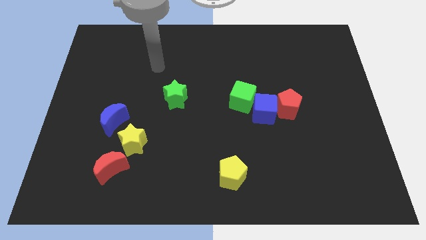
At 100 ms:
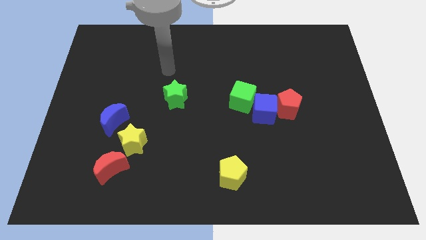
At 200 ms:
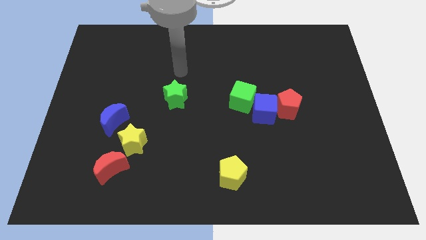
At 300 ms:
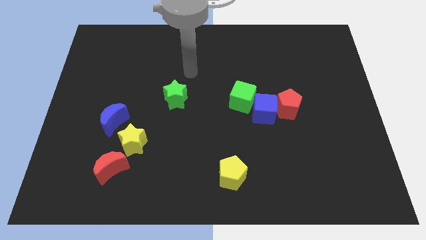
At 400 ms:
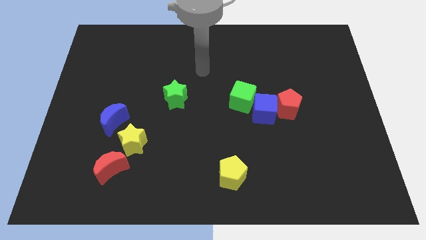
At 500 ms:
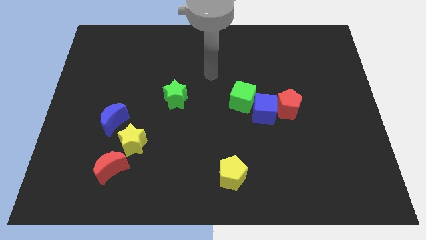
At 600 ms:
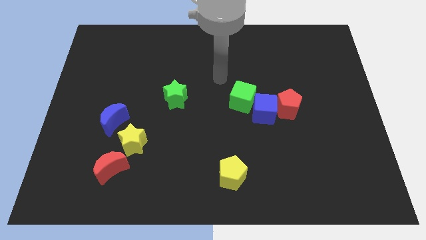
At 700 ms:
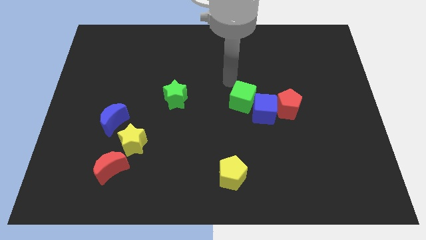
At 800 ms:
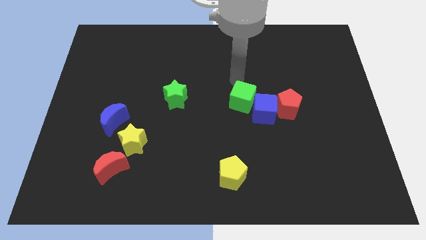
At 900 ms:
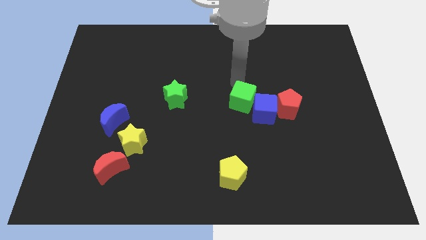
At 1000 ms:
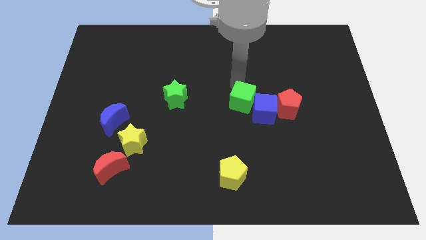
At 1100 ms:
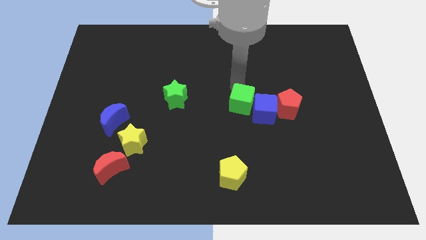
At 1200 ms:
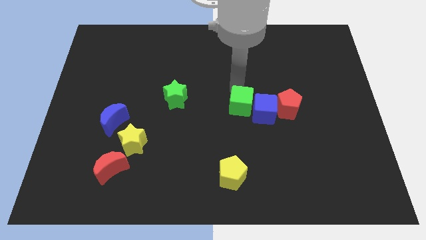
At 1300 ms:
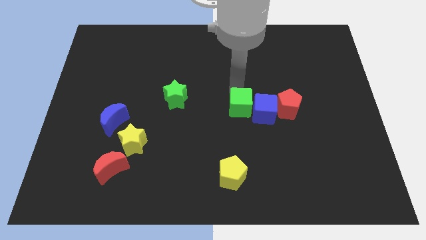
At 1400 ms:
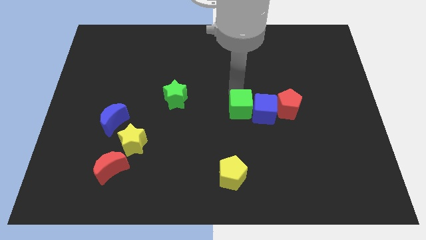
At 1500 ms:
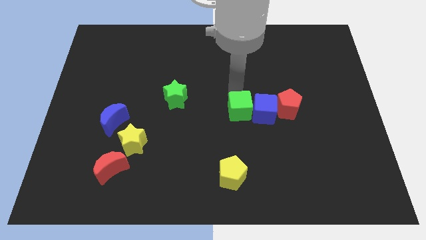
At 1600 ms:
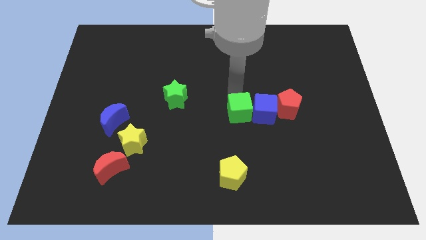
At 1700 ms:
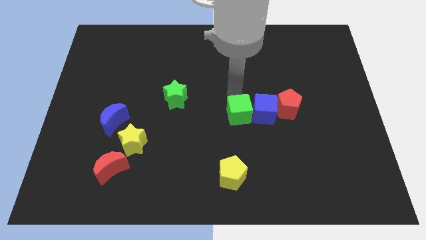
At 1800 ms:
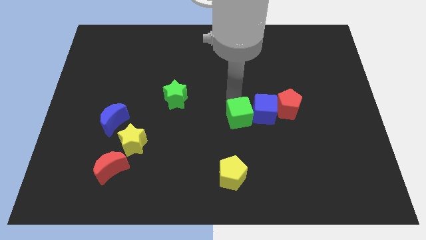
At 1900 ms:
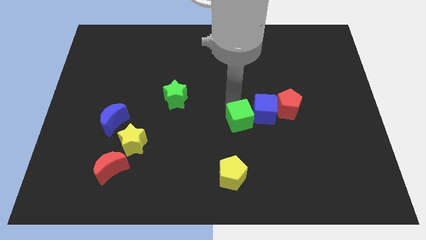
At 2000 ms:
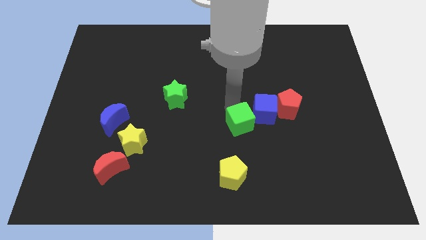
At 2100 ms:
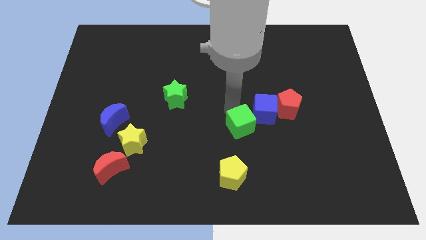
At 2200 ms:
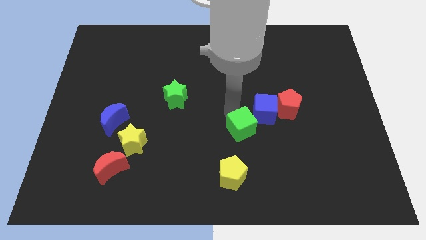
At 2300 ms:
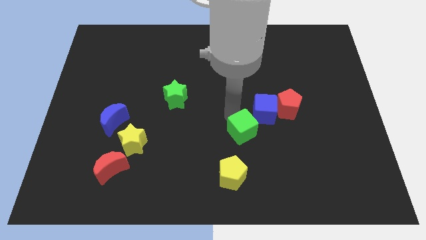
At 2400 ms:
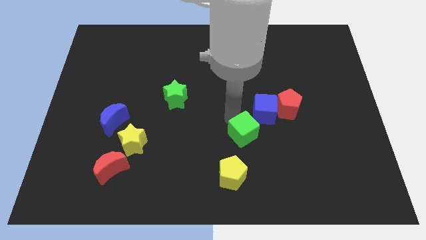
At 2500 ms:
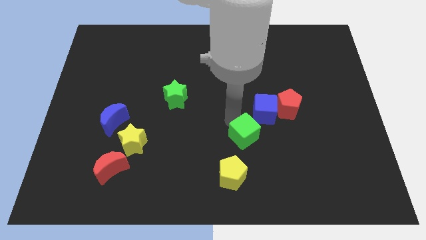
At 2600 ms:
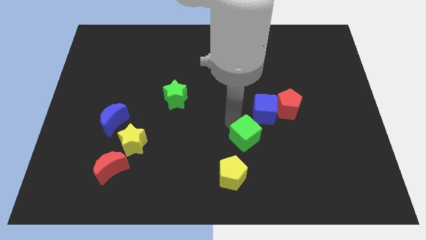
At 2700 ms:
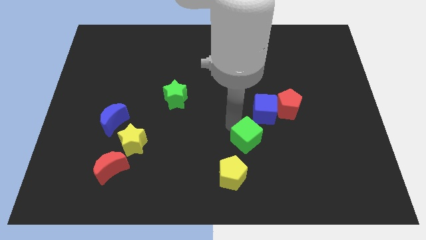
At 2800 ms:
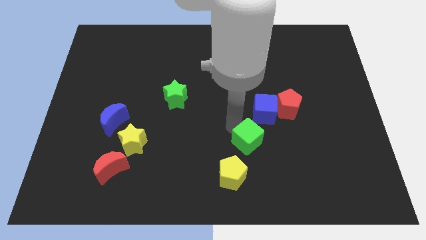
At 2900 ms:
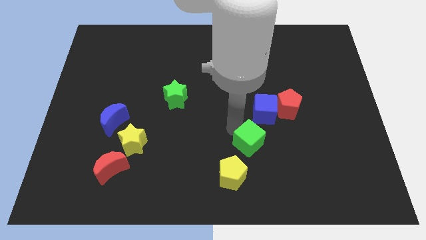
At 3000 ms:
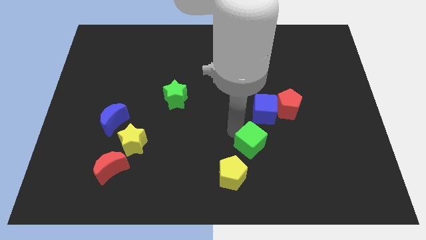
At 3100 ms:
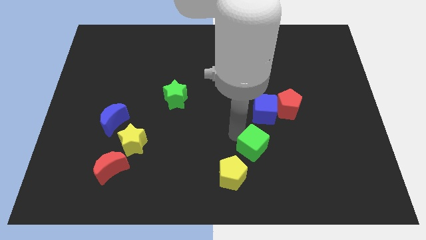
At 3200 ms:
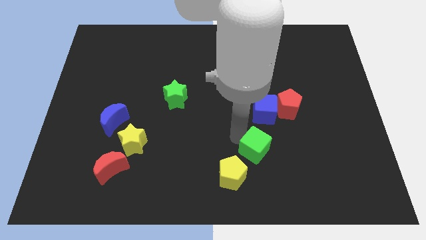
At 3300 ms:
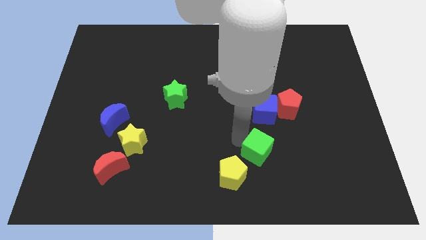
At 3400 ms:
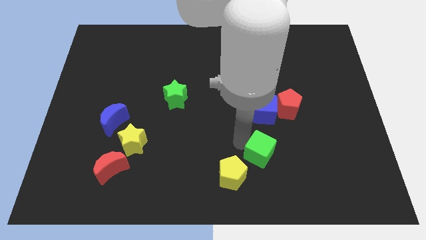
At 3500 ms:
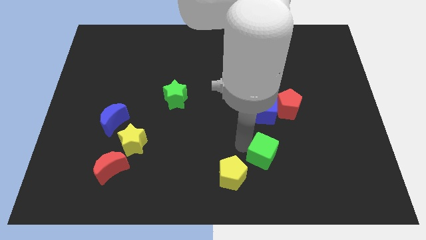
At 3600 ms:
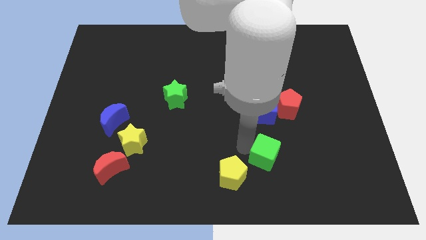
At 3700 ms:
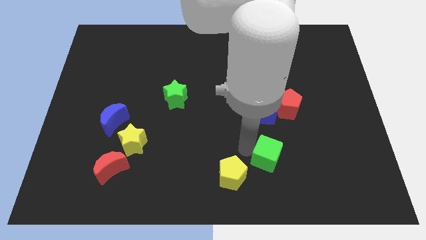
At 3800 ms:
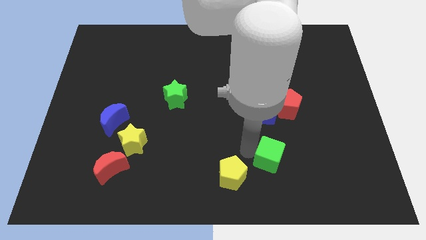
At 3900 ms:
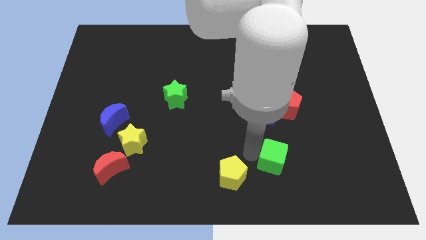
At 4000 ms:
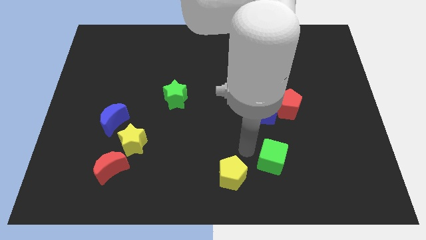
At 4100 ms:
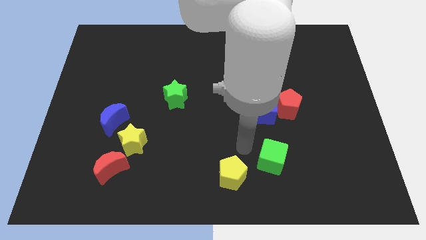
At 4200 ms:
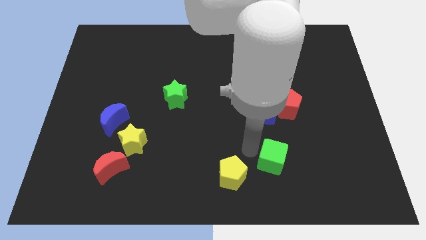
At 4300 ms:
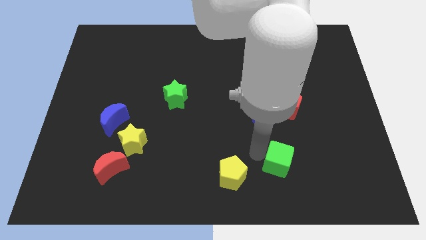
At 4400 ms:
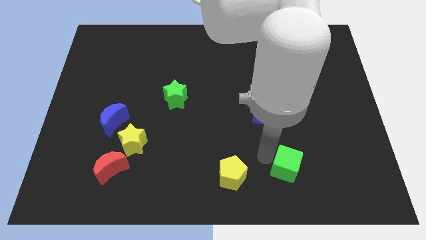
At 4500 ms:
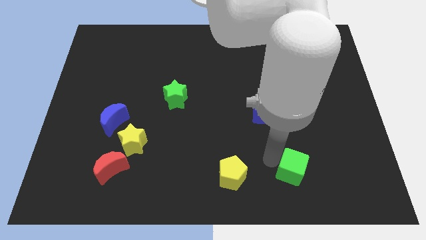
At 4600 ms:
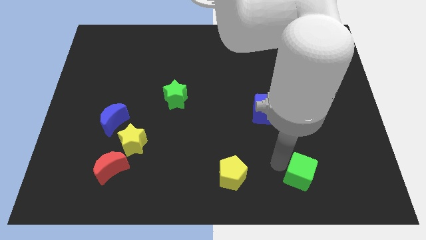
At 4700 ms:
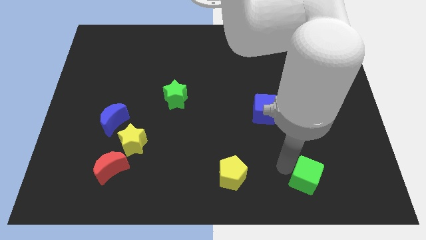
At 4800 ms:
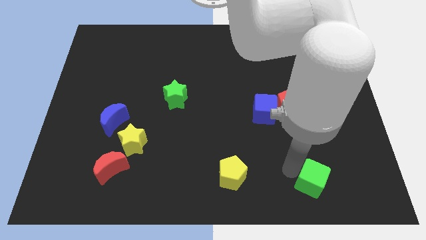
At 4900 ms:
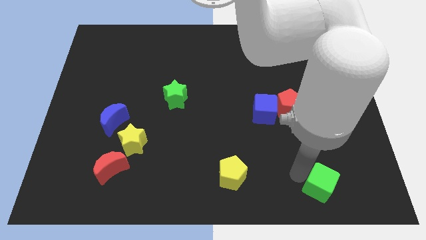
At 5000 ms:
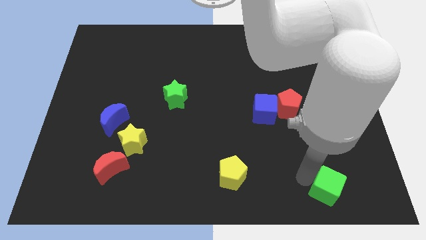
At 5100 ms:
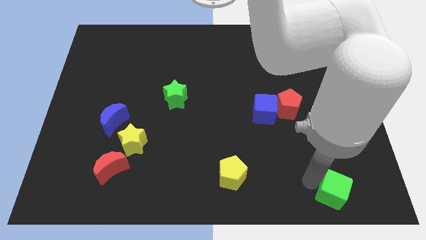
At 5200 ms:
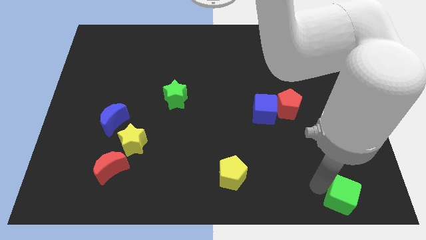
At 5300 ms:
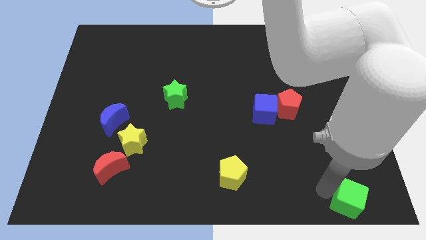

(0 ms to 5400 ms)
move the green cube to the bottom right corner

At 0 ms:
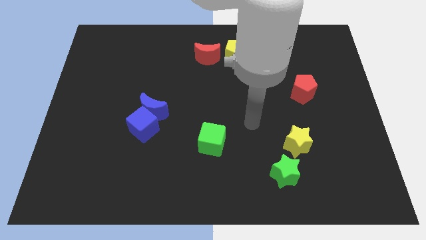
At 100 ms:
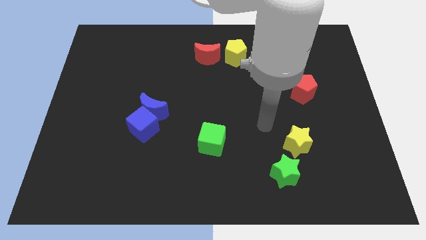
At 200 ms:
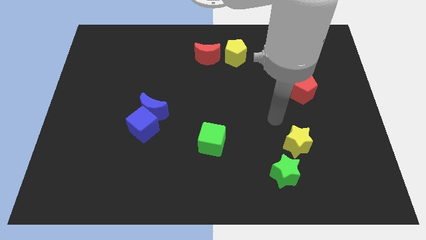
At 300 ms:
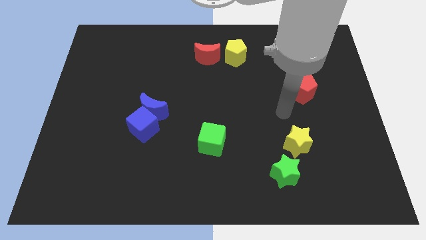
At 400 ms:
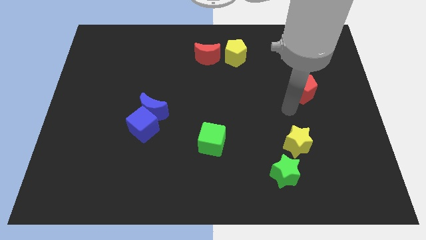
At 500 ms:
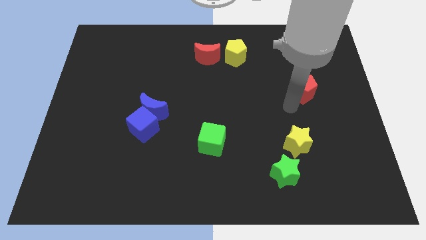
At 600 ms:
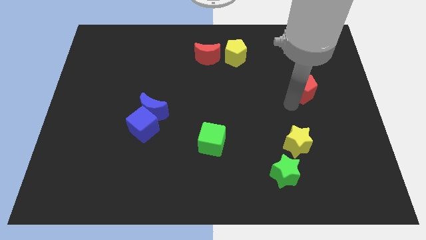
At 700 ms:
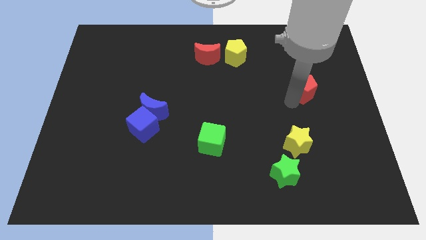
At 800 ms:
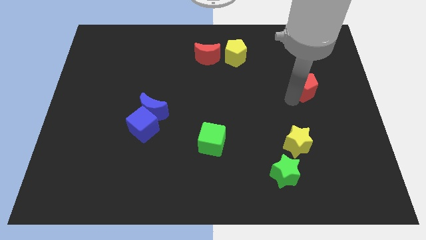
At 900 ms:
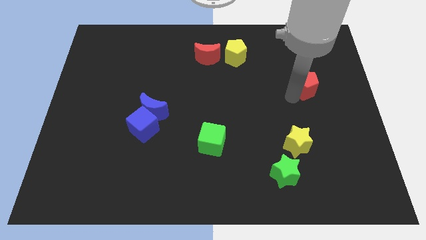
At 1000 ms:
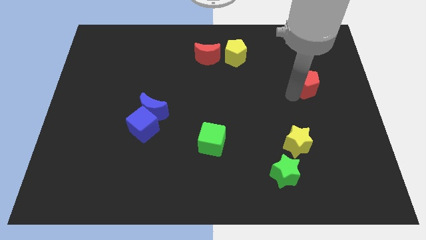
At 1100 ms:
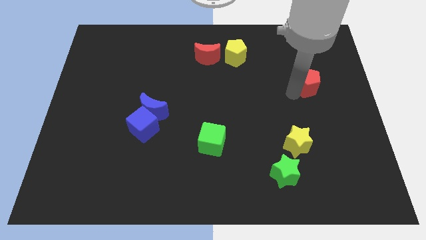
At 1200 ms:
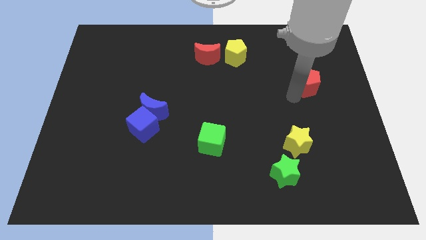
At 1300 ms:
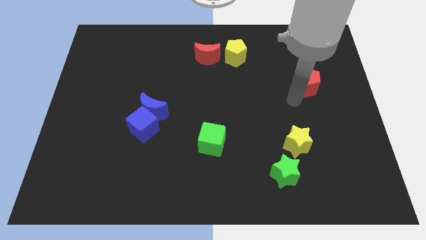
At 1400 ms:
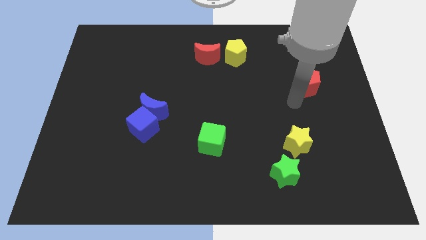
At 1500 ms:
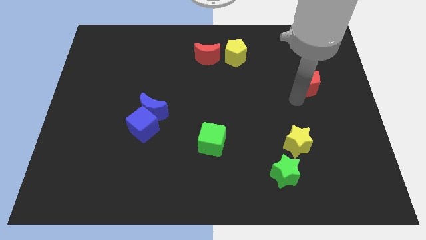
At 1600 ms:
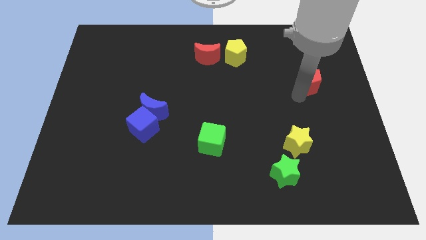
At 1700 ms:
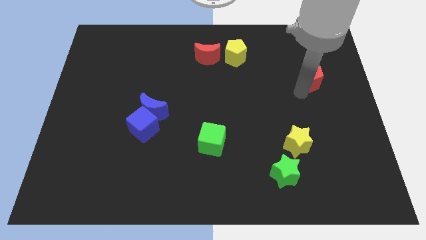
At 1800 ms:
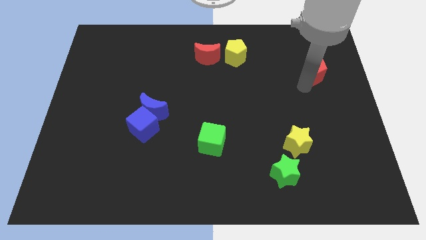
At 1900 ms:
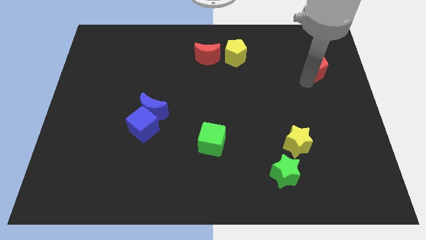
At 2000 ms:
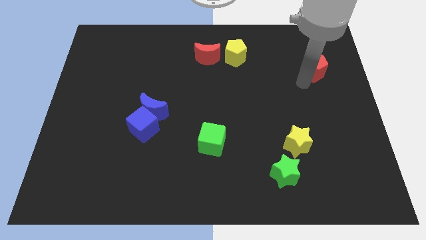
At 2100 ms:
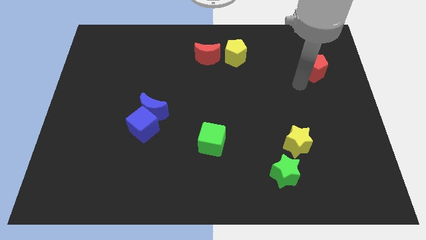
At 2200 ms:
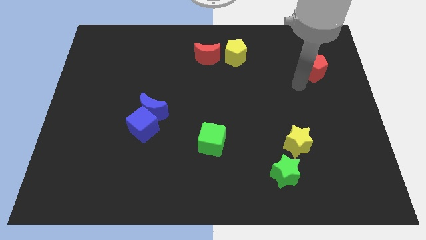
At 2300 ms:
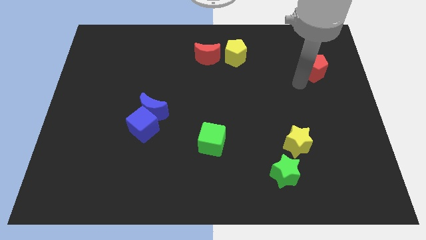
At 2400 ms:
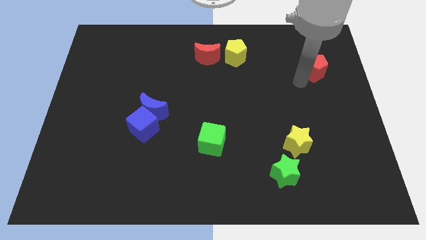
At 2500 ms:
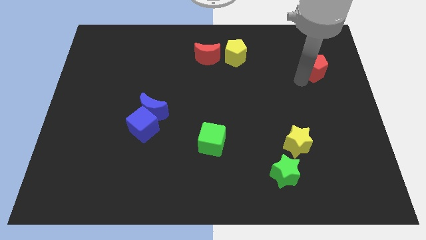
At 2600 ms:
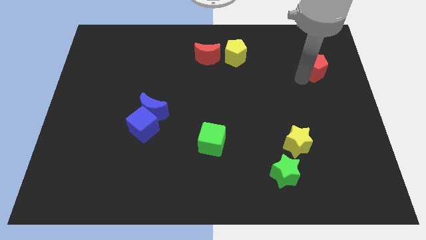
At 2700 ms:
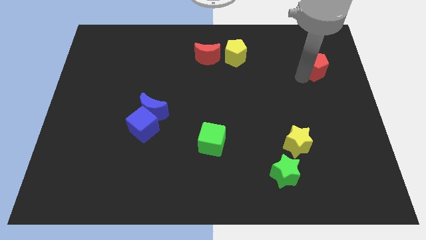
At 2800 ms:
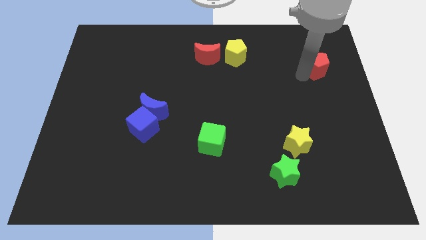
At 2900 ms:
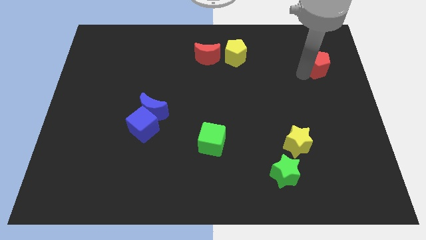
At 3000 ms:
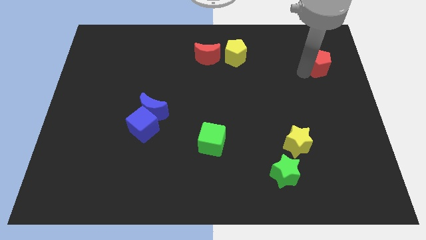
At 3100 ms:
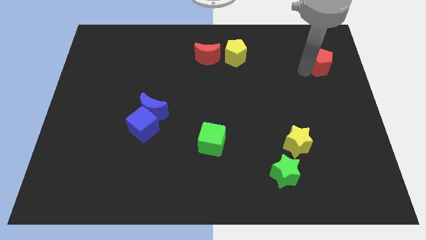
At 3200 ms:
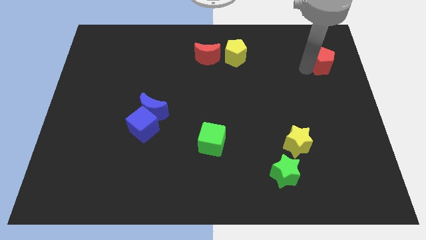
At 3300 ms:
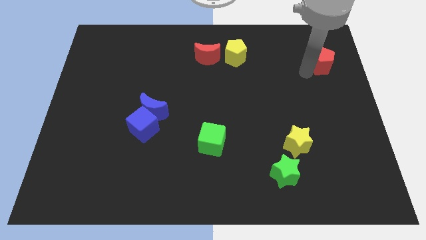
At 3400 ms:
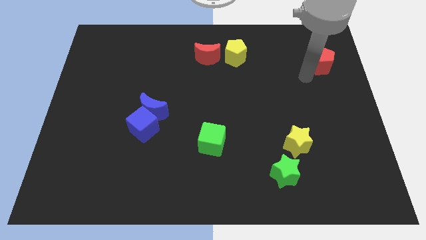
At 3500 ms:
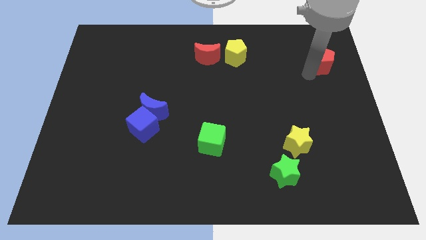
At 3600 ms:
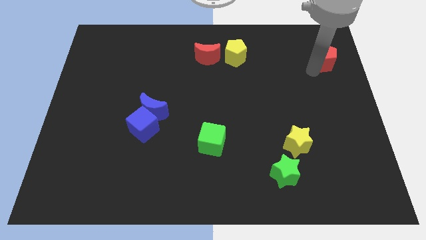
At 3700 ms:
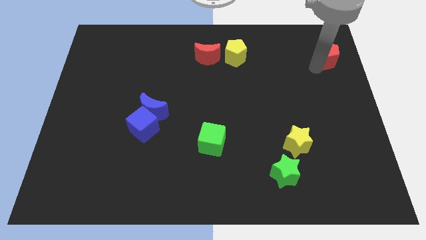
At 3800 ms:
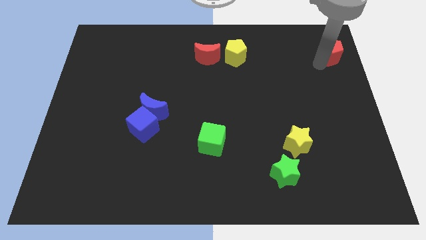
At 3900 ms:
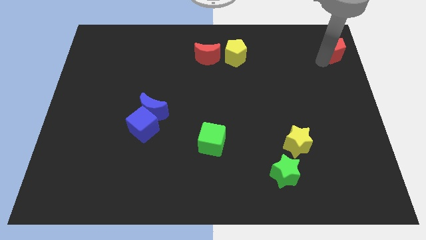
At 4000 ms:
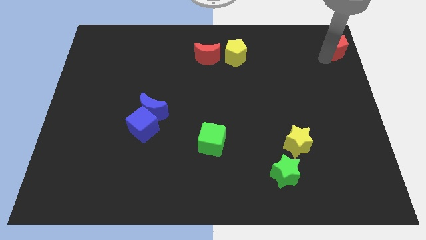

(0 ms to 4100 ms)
move the red pentagon to the top right
